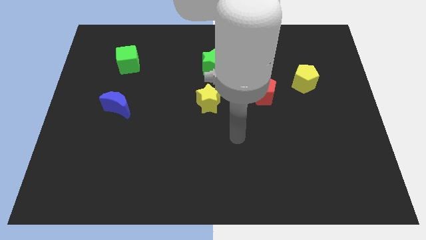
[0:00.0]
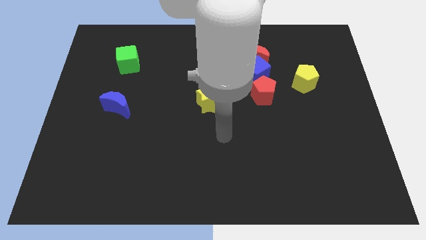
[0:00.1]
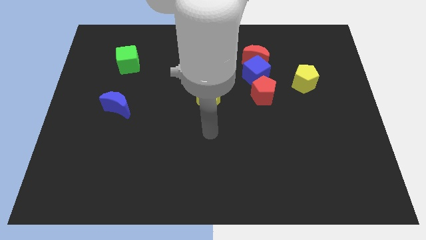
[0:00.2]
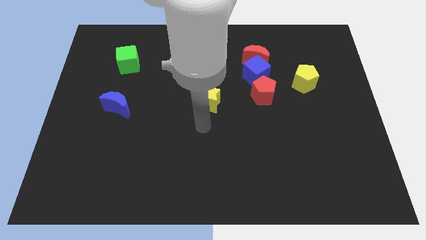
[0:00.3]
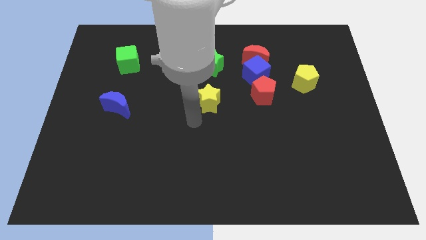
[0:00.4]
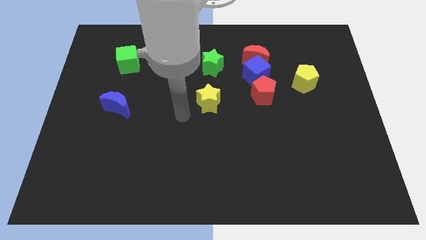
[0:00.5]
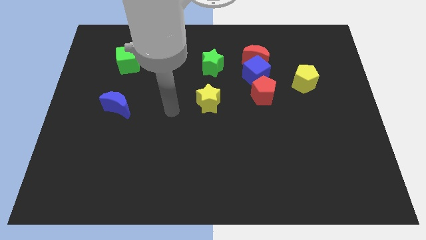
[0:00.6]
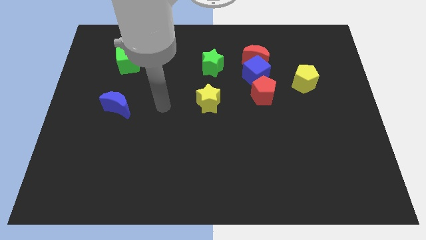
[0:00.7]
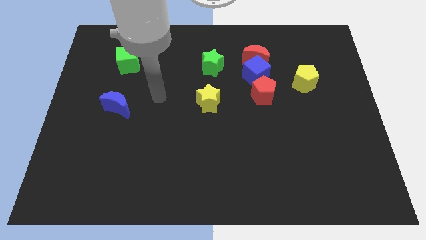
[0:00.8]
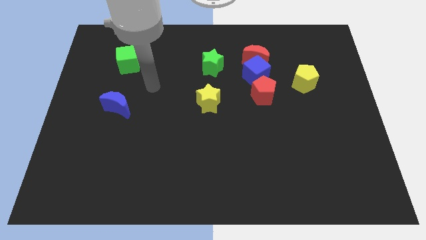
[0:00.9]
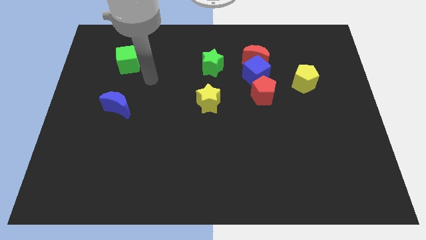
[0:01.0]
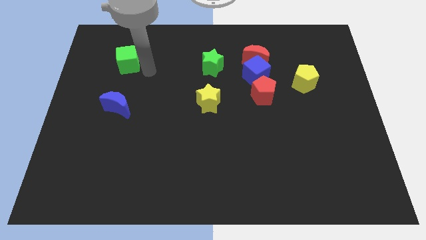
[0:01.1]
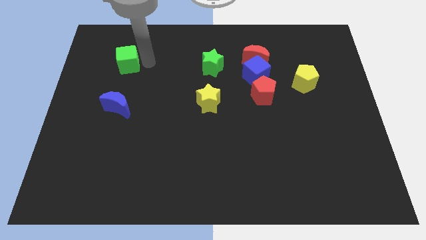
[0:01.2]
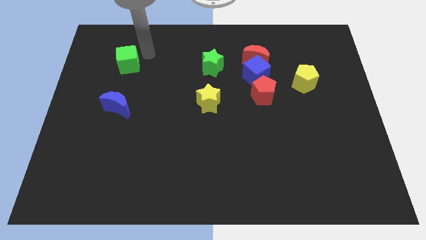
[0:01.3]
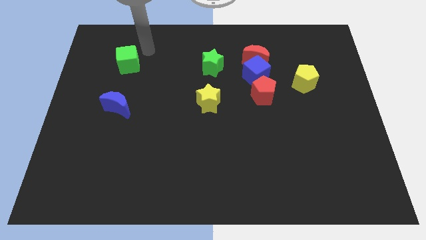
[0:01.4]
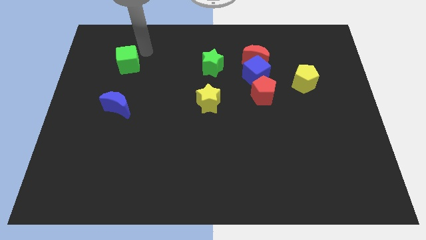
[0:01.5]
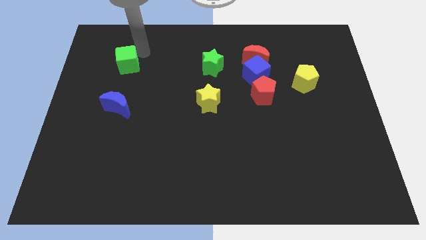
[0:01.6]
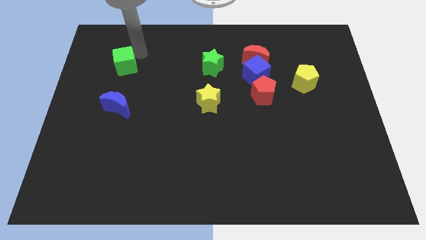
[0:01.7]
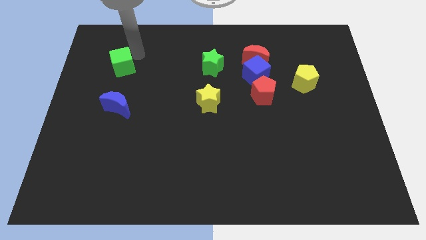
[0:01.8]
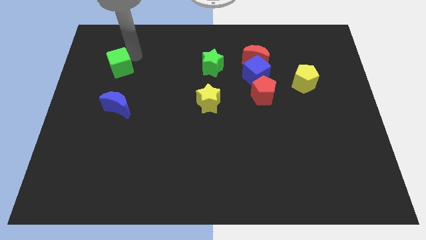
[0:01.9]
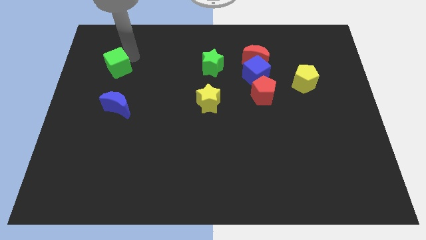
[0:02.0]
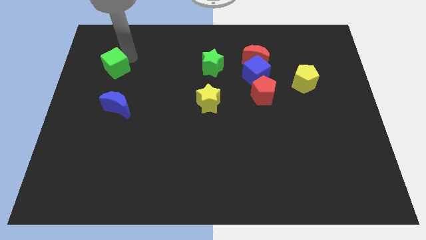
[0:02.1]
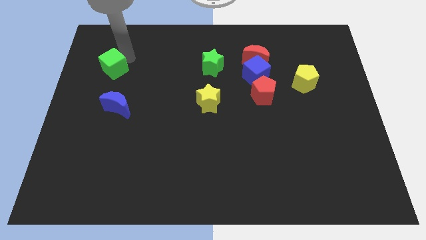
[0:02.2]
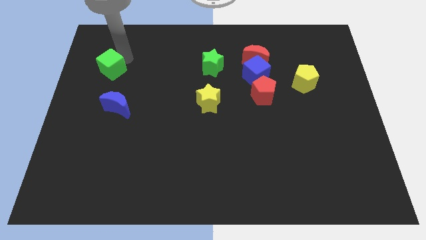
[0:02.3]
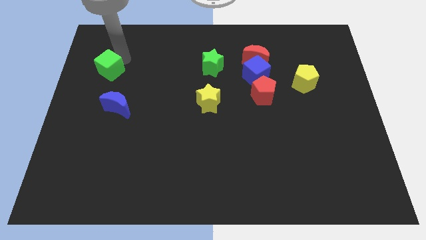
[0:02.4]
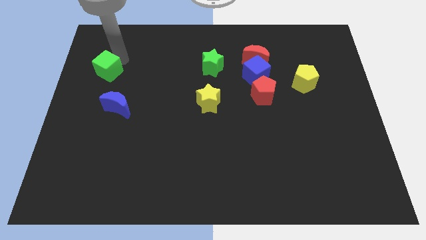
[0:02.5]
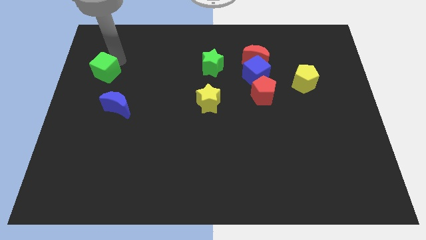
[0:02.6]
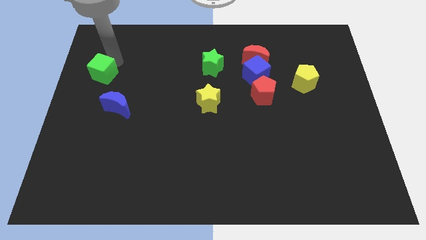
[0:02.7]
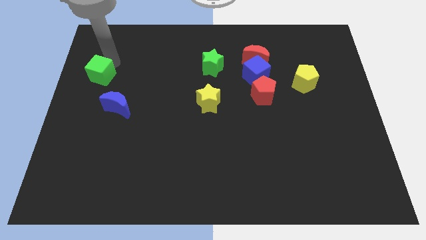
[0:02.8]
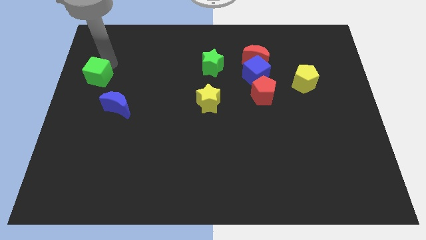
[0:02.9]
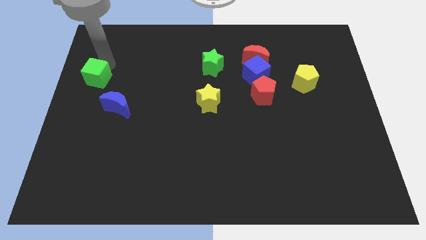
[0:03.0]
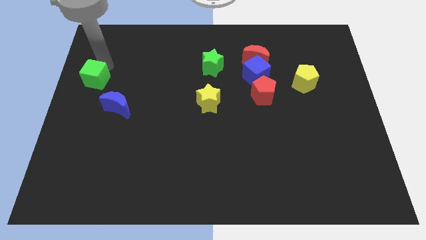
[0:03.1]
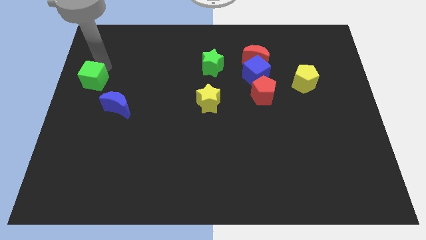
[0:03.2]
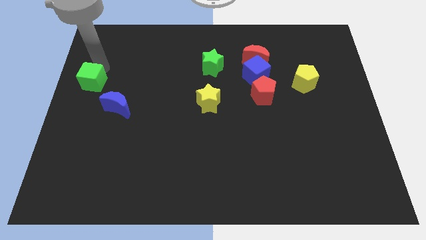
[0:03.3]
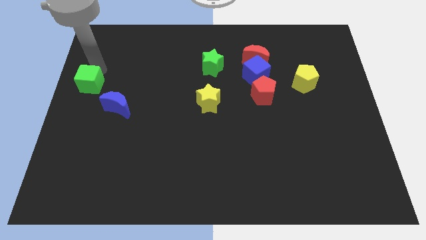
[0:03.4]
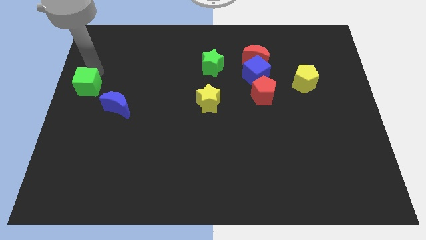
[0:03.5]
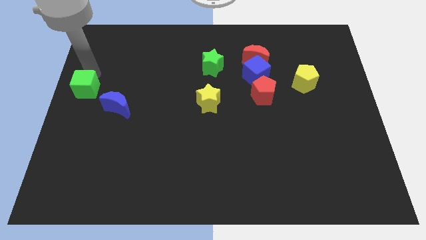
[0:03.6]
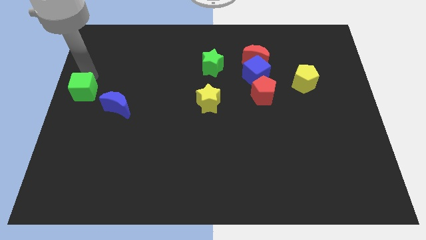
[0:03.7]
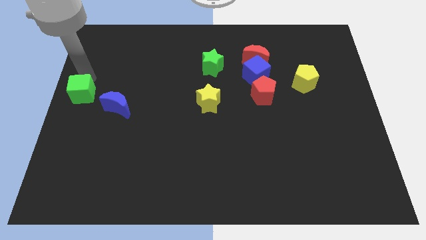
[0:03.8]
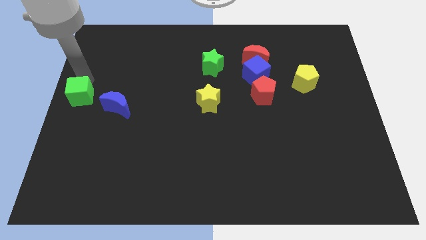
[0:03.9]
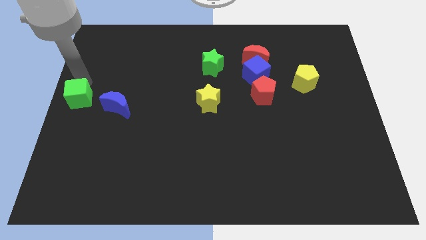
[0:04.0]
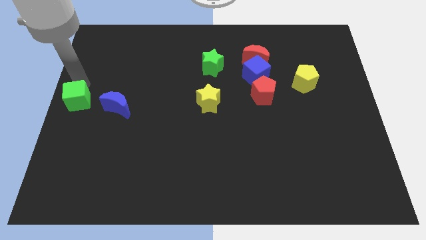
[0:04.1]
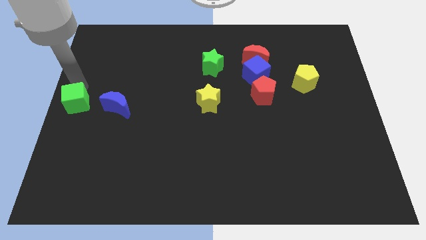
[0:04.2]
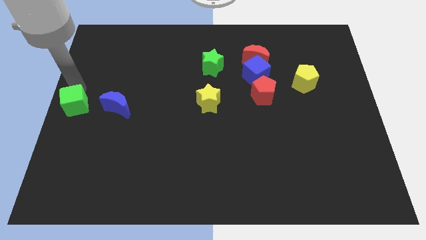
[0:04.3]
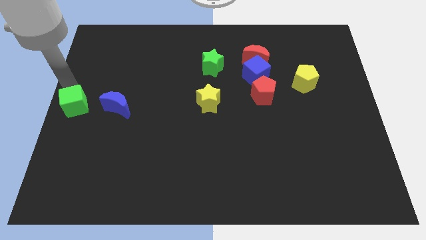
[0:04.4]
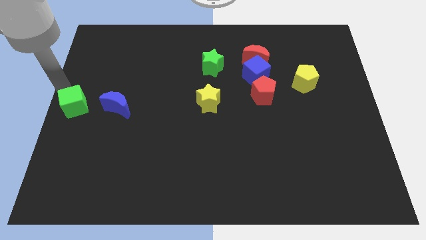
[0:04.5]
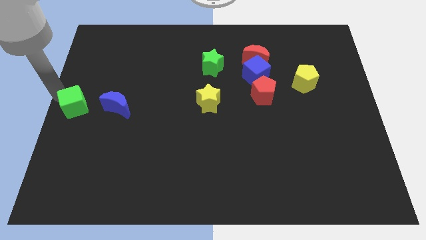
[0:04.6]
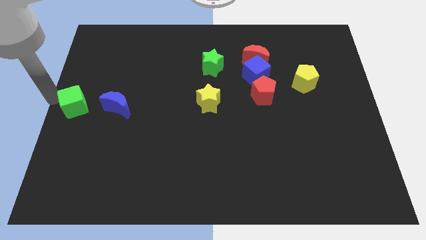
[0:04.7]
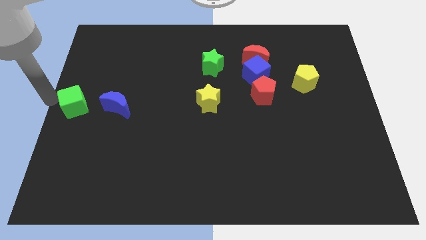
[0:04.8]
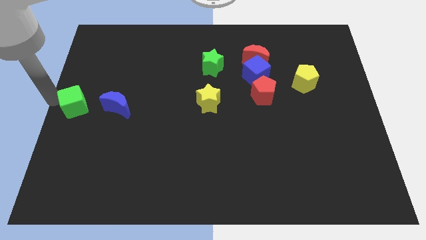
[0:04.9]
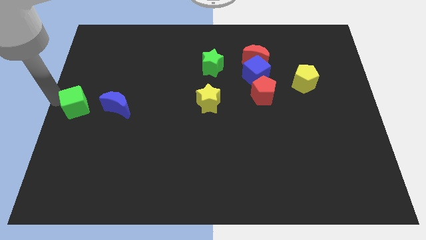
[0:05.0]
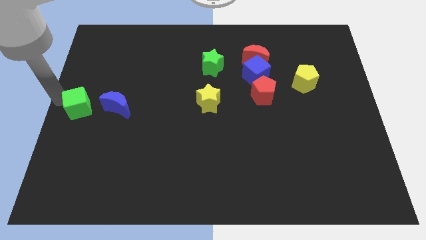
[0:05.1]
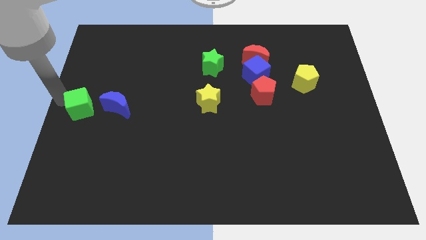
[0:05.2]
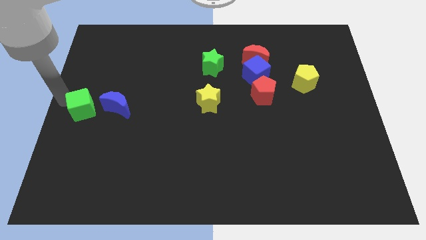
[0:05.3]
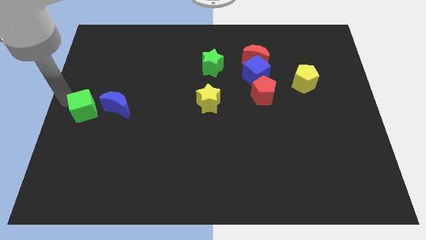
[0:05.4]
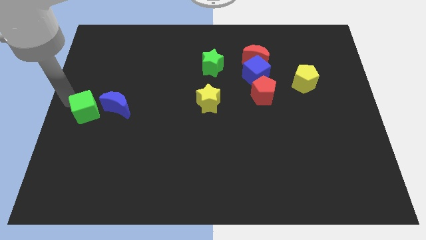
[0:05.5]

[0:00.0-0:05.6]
push the green cube diagonally down and to the left of the blue moon

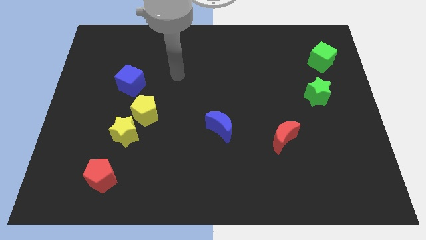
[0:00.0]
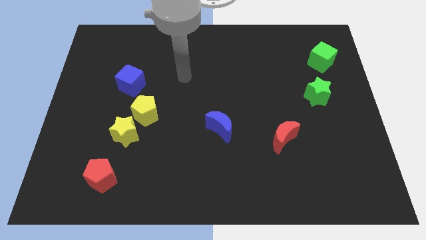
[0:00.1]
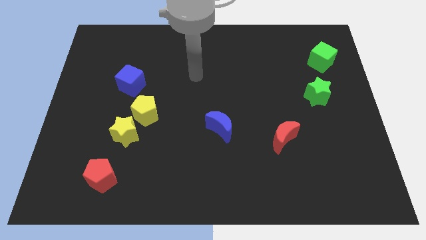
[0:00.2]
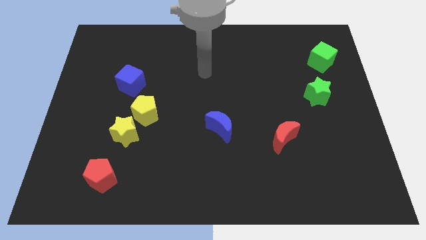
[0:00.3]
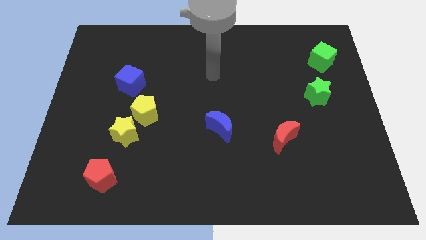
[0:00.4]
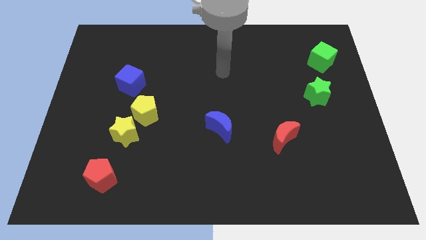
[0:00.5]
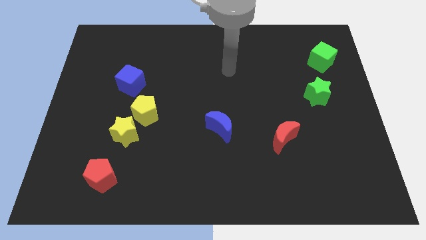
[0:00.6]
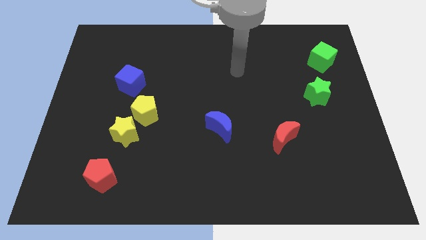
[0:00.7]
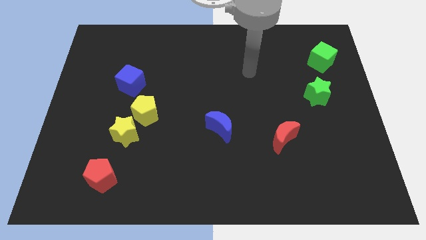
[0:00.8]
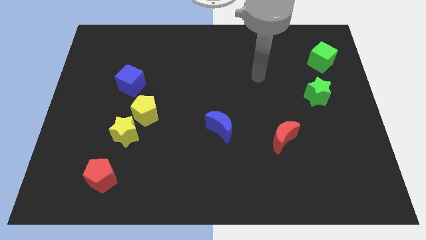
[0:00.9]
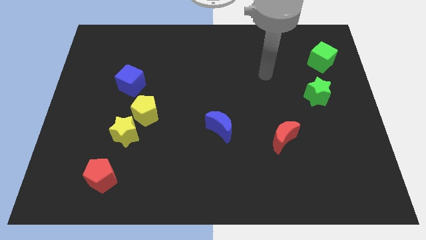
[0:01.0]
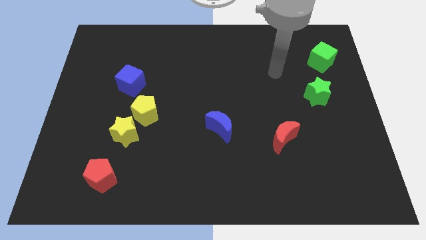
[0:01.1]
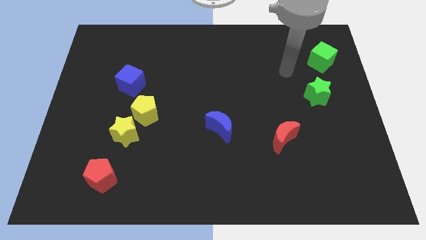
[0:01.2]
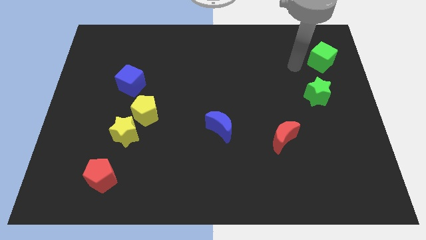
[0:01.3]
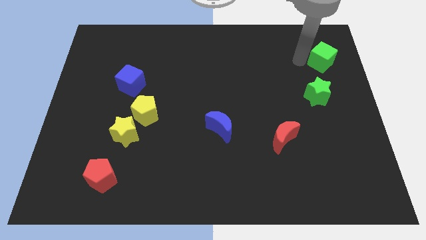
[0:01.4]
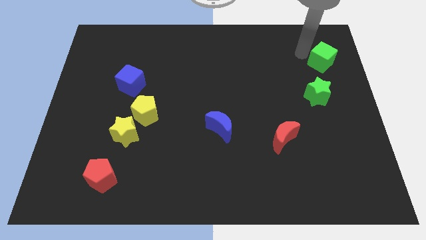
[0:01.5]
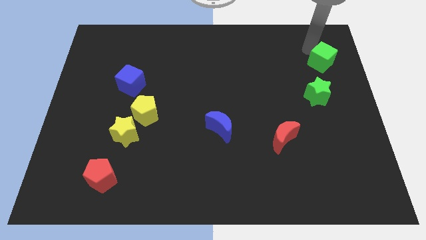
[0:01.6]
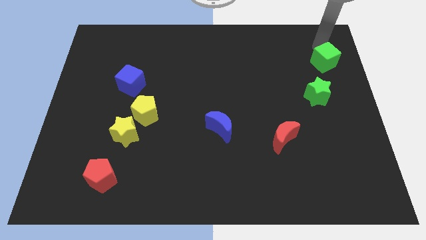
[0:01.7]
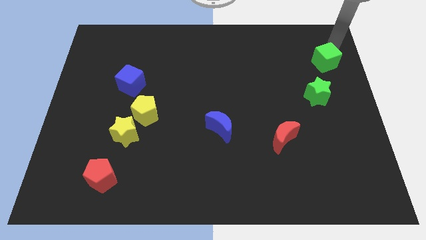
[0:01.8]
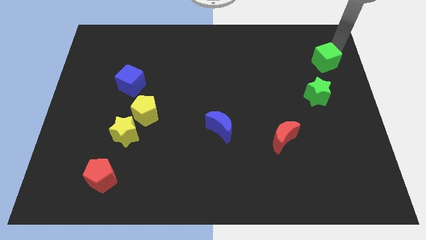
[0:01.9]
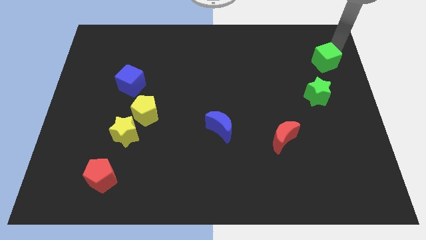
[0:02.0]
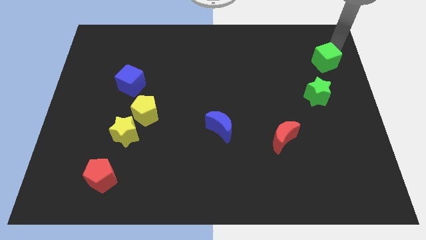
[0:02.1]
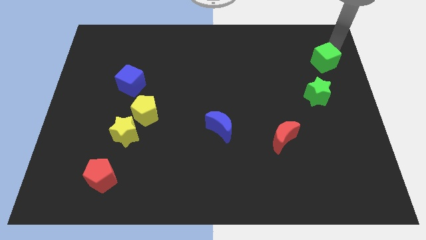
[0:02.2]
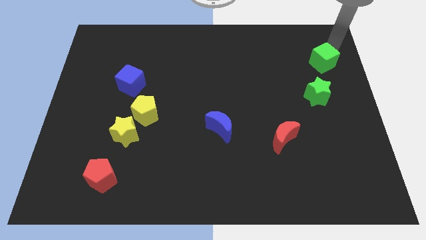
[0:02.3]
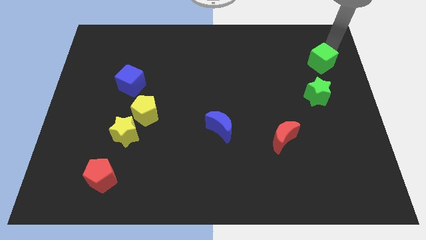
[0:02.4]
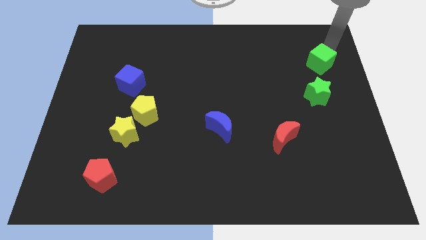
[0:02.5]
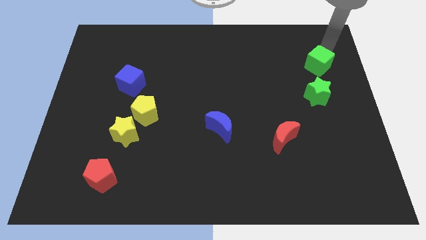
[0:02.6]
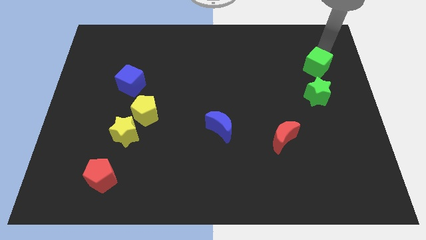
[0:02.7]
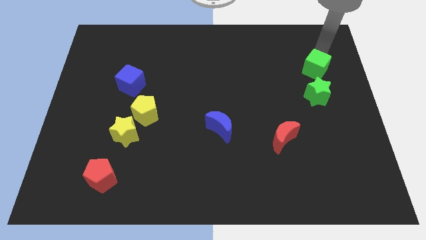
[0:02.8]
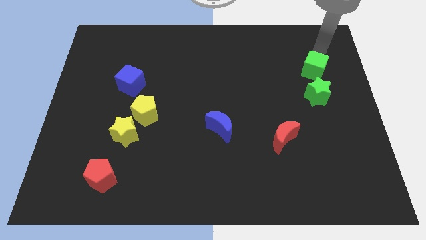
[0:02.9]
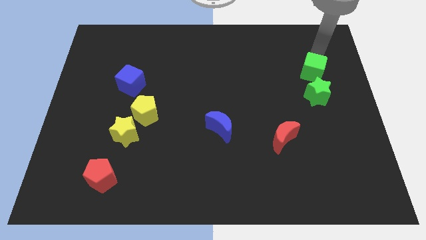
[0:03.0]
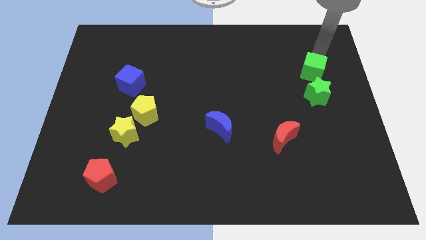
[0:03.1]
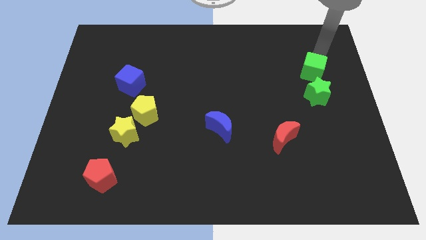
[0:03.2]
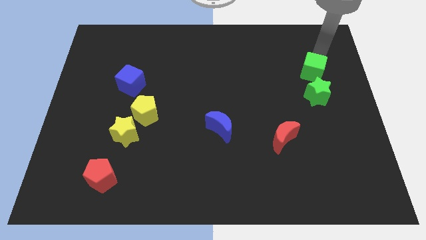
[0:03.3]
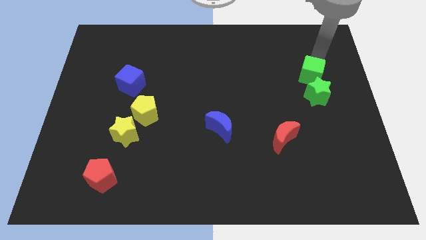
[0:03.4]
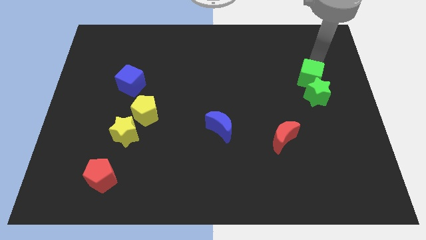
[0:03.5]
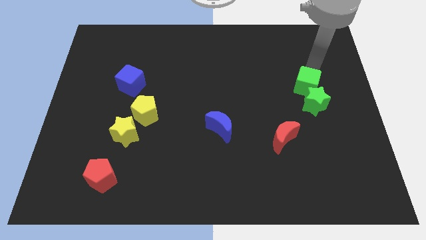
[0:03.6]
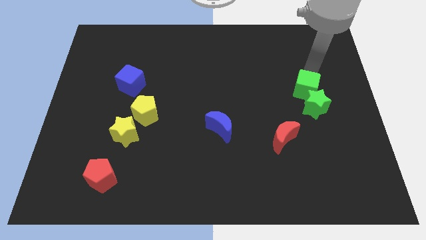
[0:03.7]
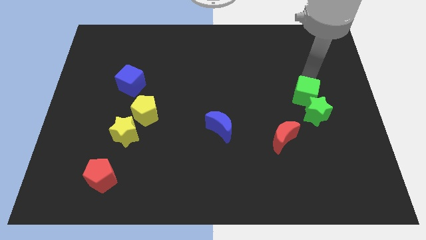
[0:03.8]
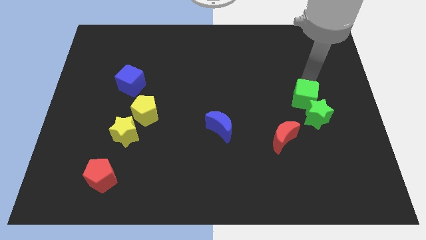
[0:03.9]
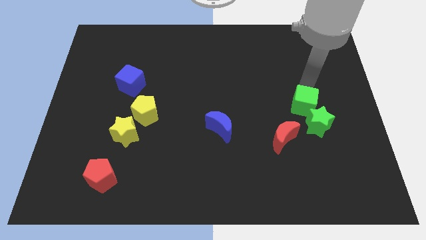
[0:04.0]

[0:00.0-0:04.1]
slide the green cube to the top right side of the red moon
